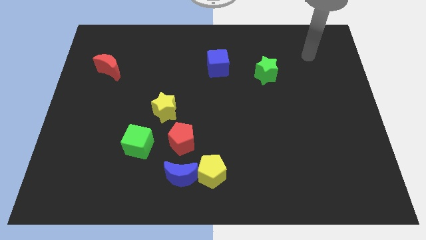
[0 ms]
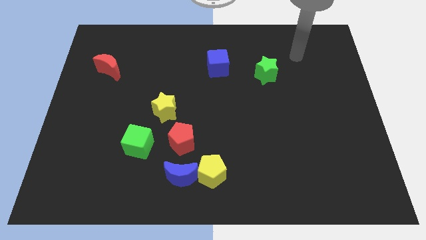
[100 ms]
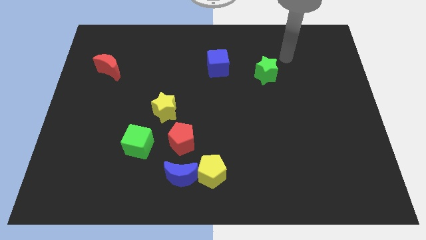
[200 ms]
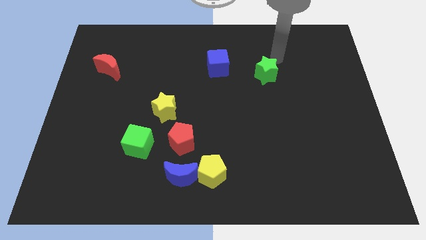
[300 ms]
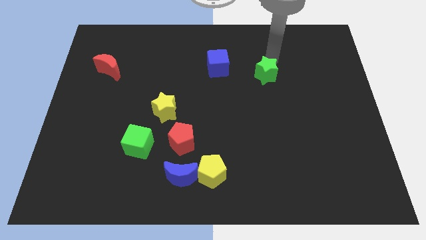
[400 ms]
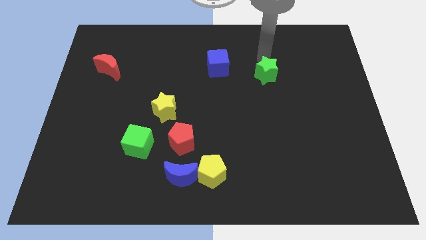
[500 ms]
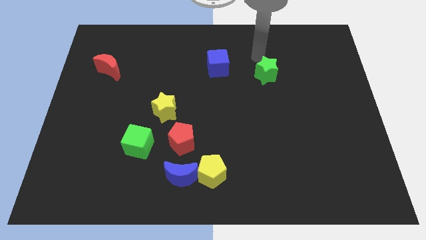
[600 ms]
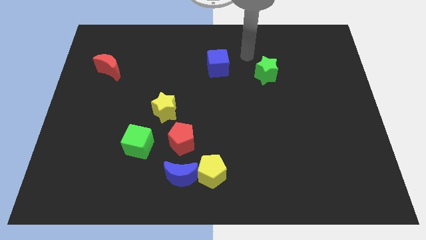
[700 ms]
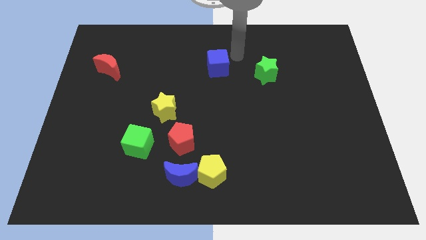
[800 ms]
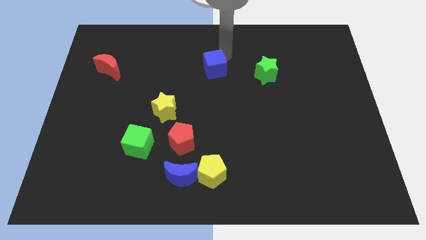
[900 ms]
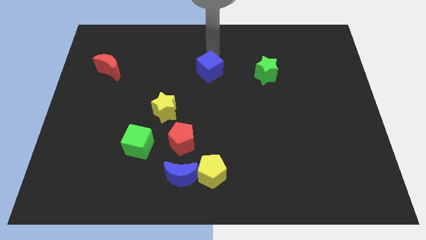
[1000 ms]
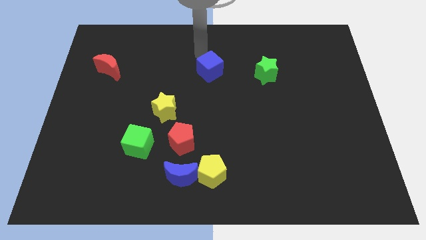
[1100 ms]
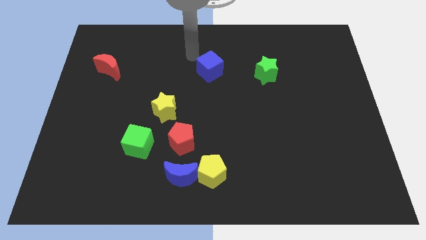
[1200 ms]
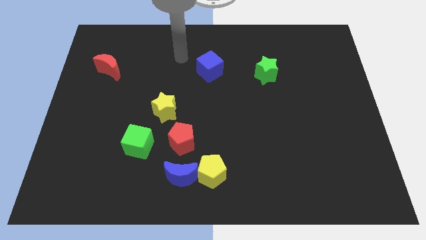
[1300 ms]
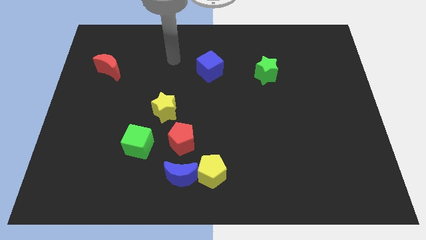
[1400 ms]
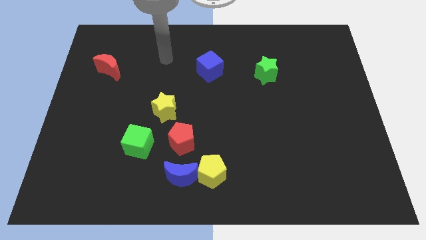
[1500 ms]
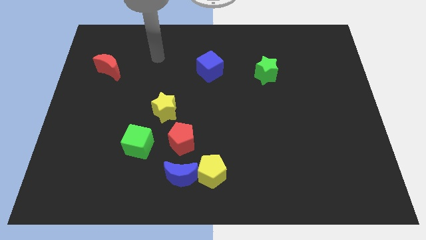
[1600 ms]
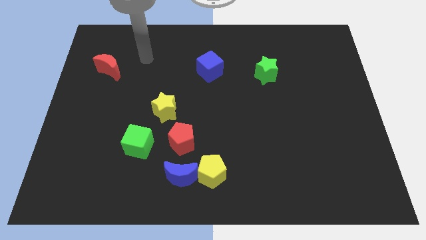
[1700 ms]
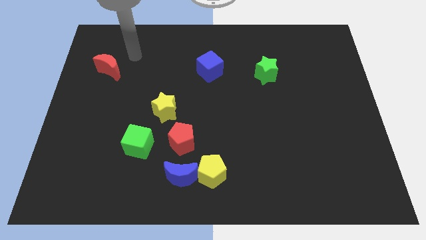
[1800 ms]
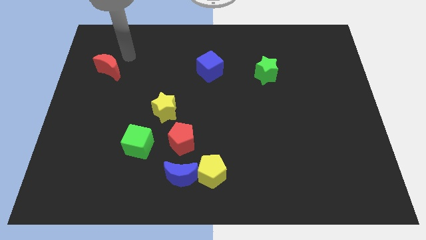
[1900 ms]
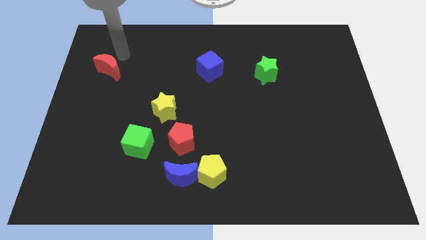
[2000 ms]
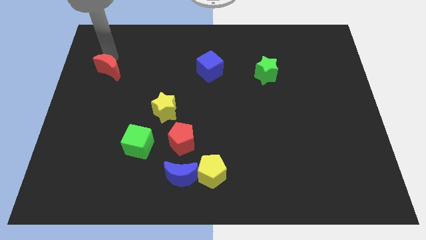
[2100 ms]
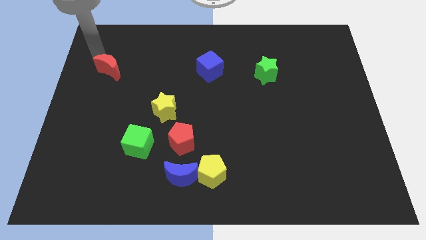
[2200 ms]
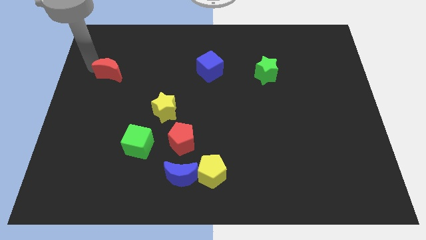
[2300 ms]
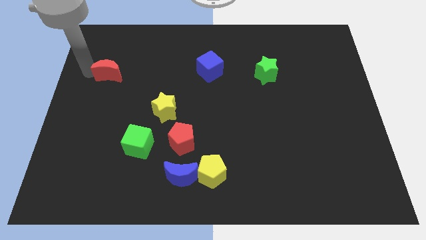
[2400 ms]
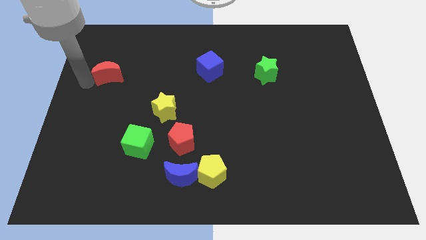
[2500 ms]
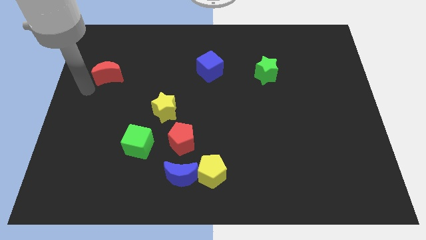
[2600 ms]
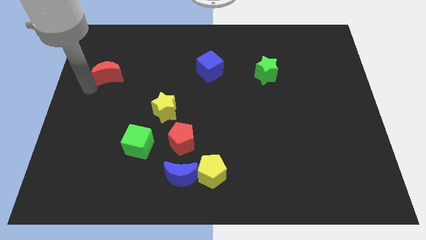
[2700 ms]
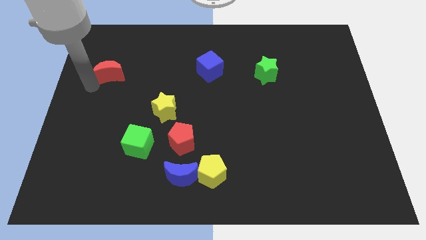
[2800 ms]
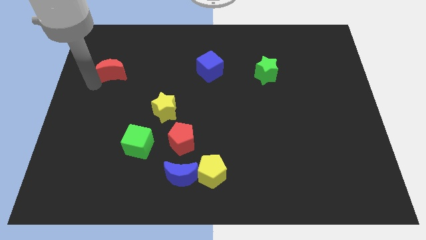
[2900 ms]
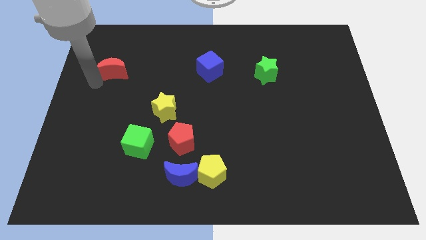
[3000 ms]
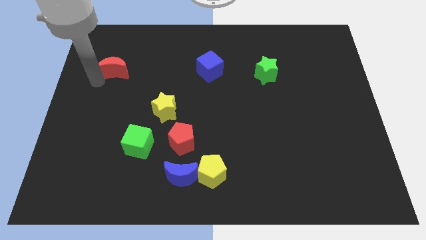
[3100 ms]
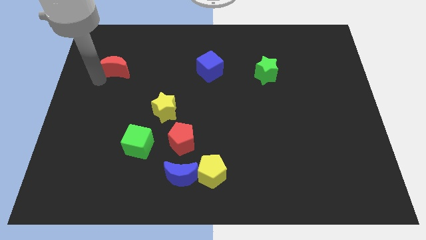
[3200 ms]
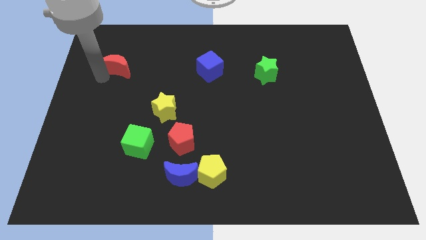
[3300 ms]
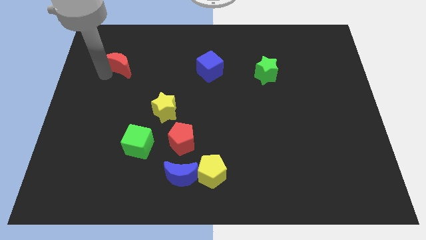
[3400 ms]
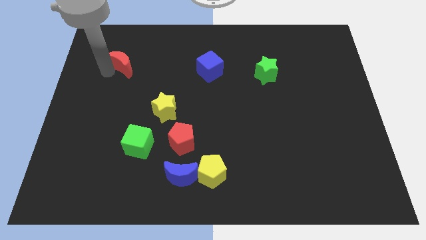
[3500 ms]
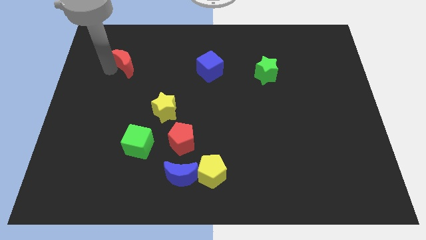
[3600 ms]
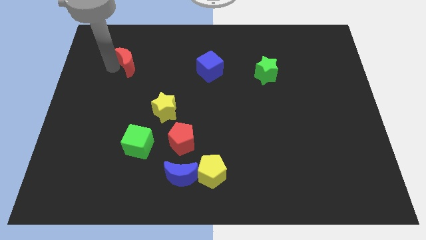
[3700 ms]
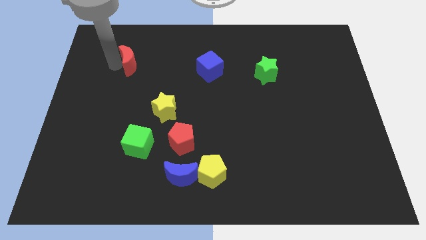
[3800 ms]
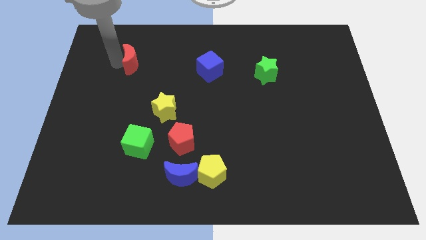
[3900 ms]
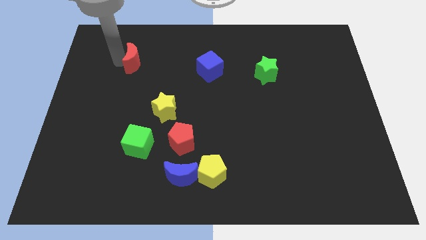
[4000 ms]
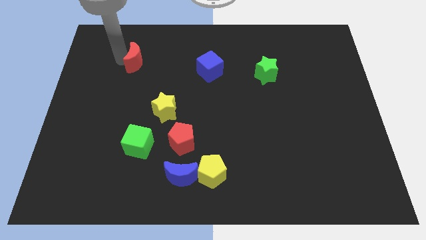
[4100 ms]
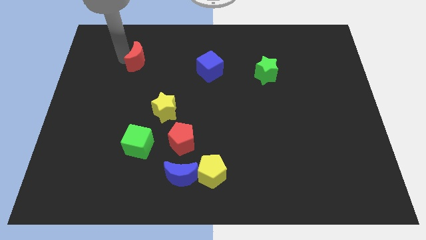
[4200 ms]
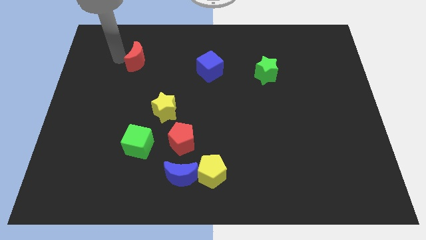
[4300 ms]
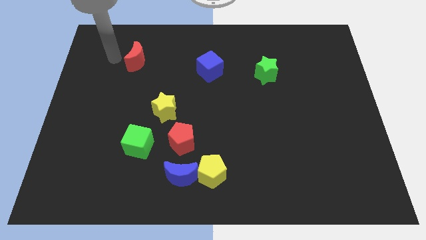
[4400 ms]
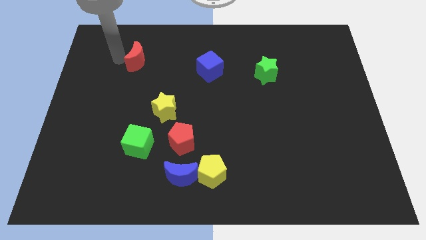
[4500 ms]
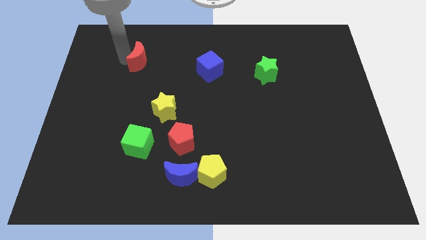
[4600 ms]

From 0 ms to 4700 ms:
move the red moon a bit to the right

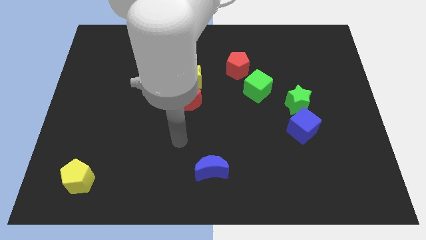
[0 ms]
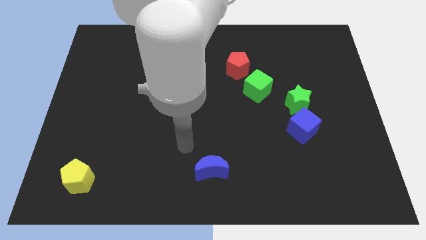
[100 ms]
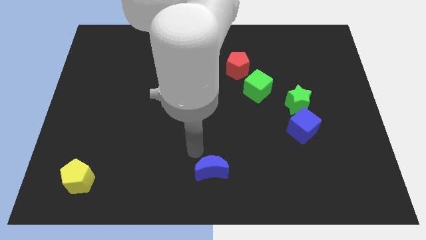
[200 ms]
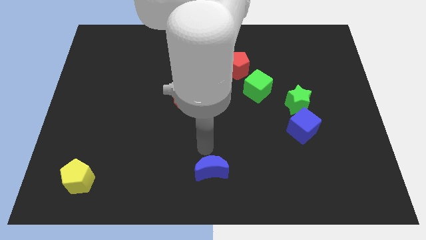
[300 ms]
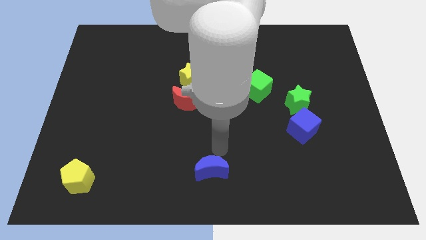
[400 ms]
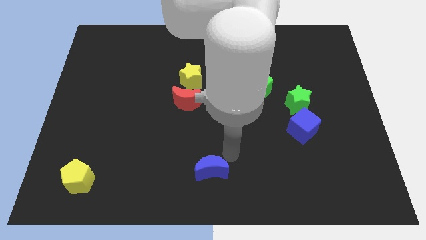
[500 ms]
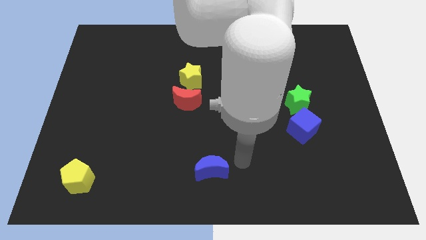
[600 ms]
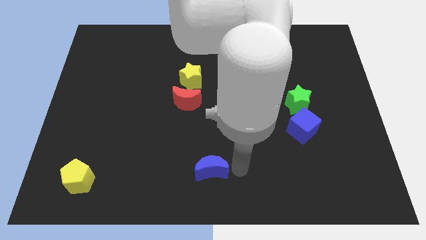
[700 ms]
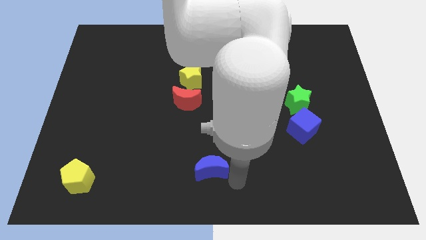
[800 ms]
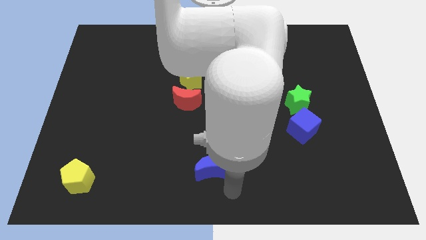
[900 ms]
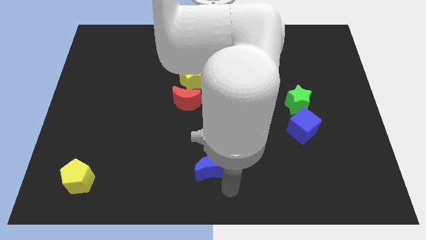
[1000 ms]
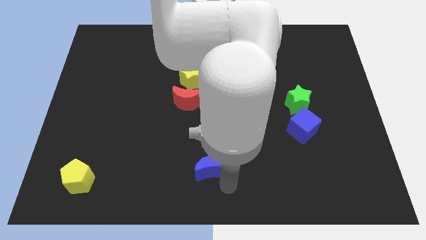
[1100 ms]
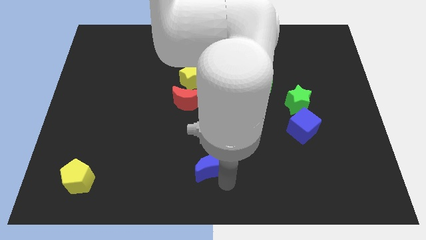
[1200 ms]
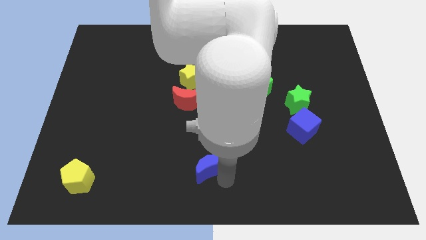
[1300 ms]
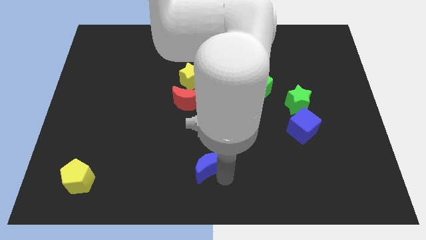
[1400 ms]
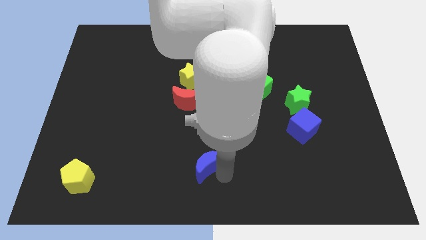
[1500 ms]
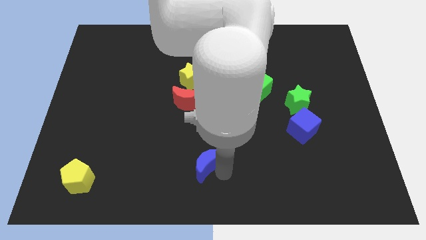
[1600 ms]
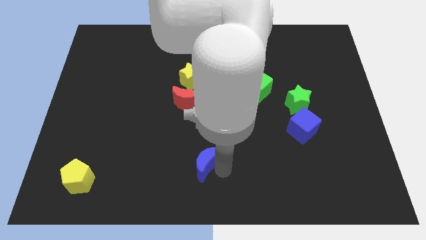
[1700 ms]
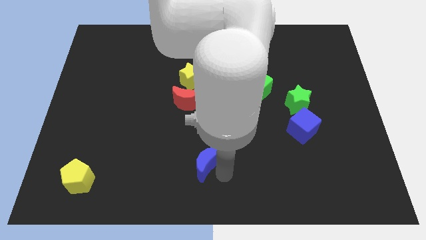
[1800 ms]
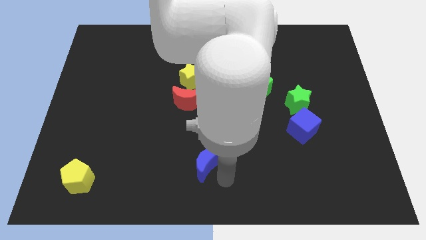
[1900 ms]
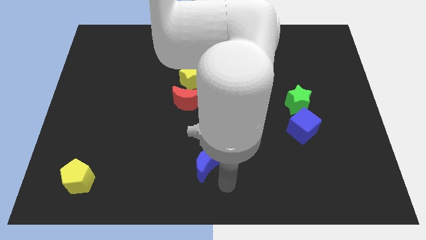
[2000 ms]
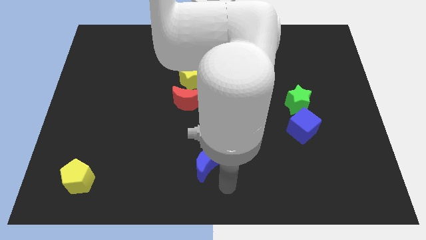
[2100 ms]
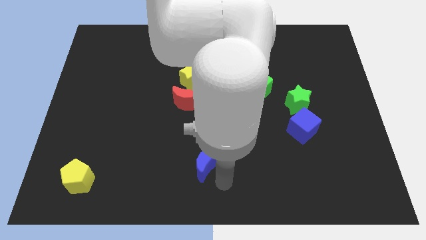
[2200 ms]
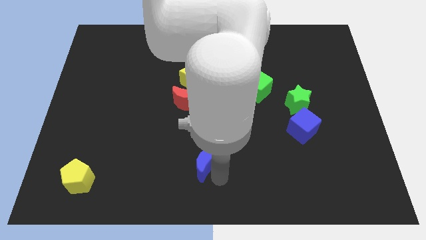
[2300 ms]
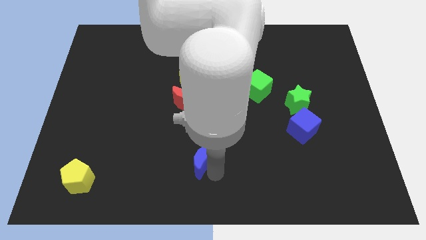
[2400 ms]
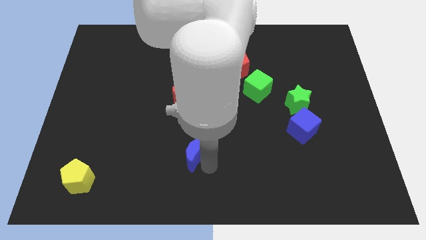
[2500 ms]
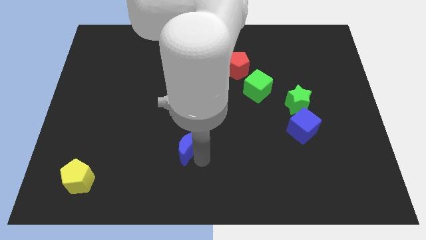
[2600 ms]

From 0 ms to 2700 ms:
move the blue moon a little diagonally up and left

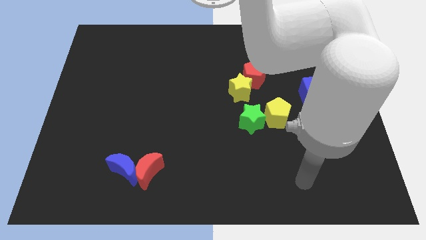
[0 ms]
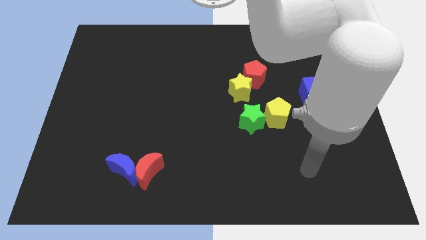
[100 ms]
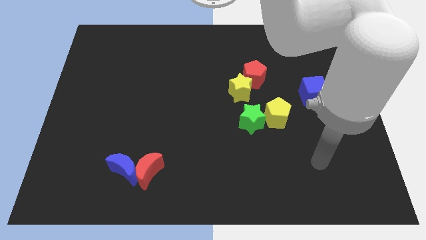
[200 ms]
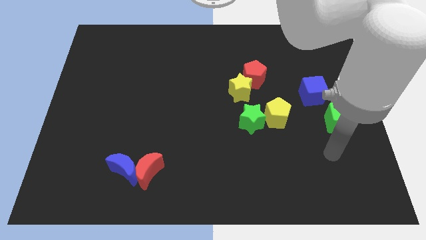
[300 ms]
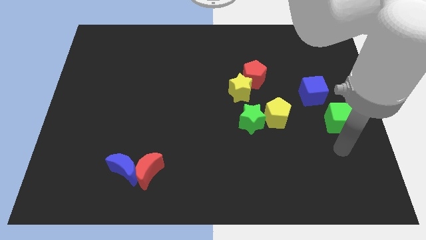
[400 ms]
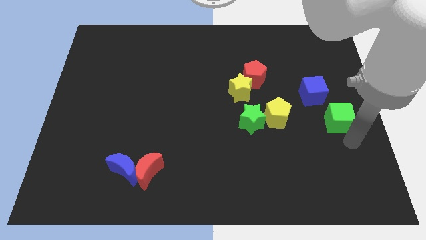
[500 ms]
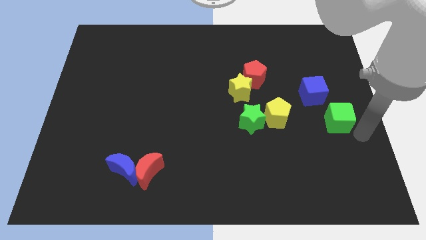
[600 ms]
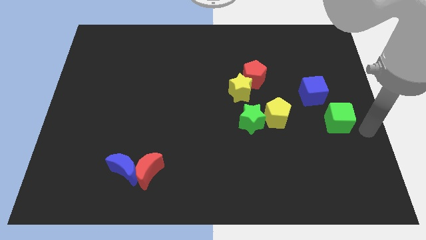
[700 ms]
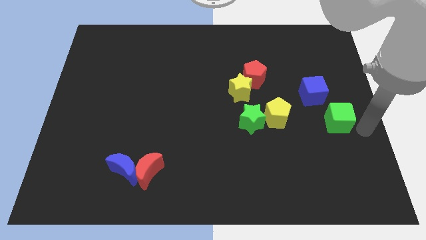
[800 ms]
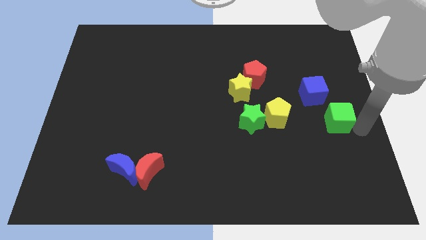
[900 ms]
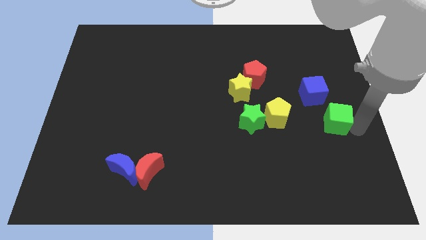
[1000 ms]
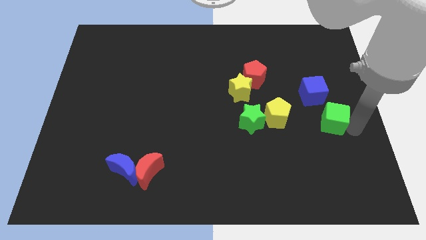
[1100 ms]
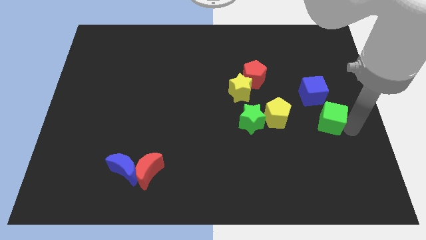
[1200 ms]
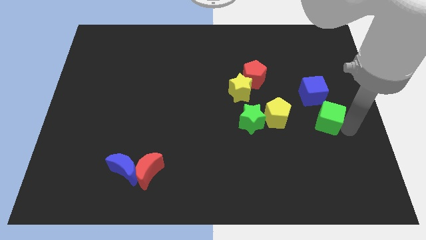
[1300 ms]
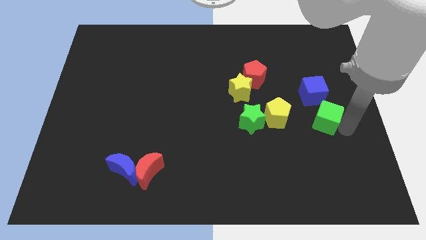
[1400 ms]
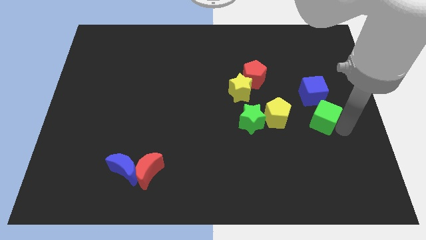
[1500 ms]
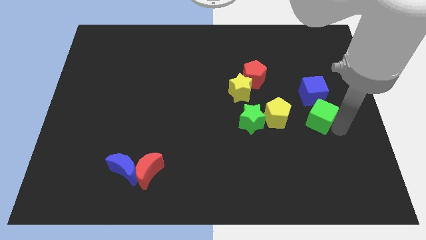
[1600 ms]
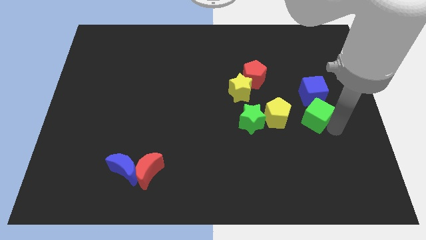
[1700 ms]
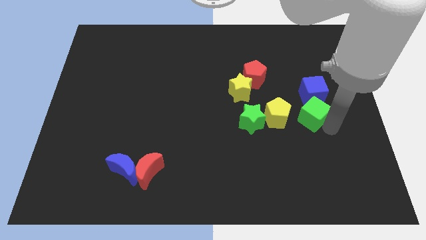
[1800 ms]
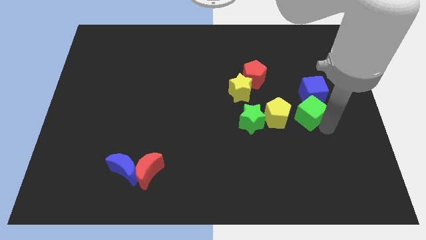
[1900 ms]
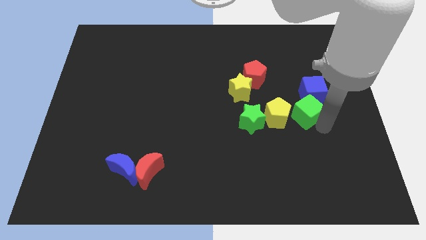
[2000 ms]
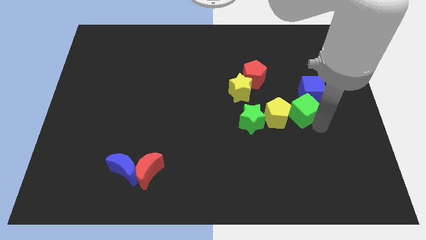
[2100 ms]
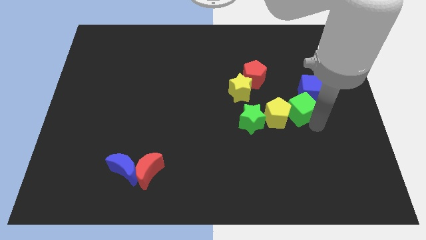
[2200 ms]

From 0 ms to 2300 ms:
slide the green cube somewhat diagonally up and to the left
